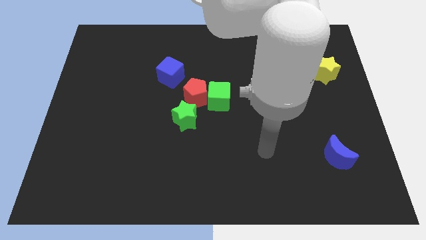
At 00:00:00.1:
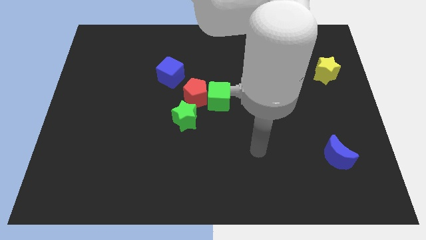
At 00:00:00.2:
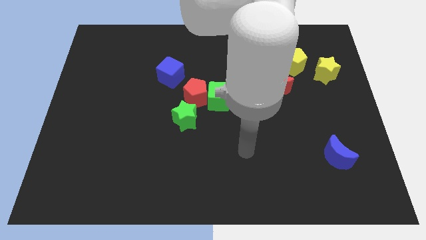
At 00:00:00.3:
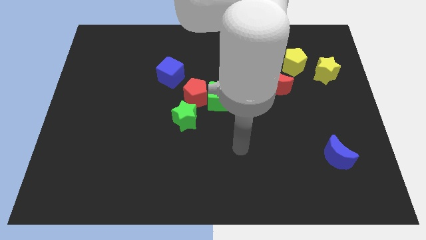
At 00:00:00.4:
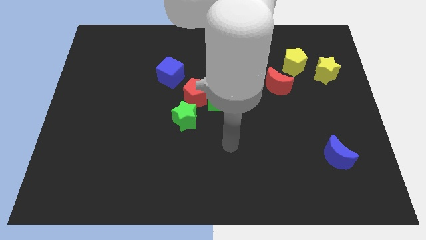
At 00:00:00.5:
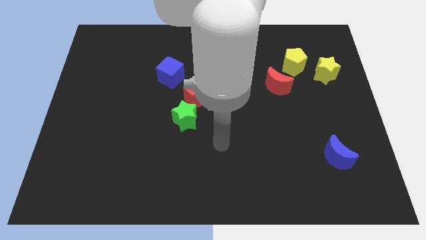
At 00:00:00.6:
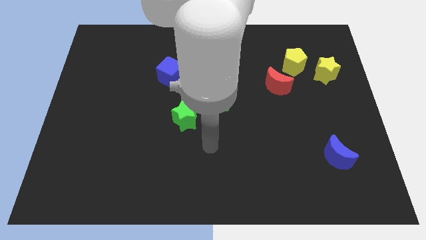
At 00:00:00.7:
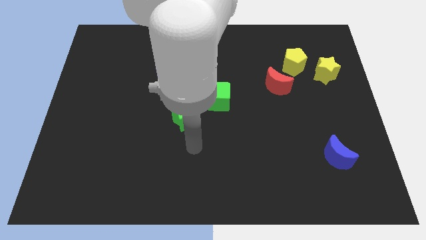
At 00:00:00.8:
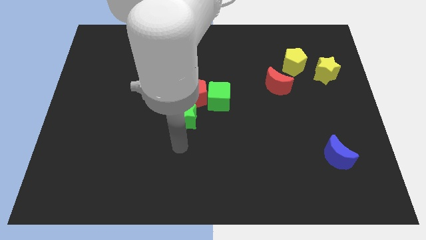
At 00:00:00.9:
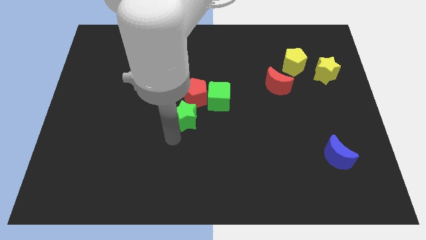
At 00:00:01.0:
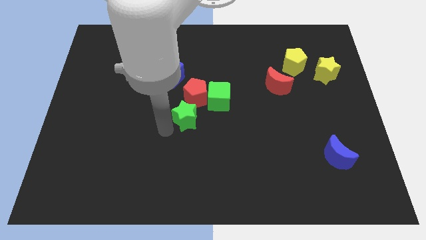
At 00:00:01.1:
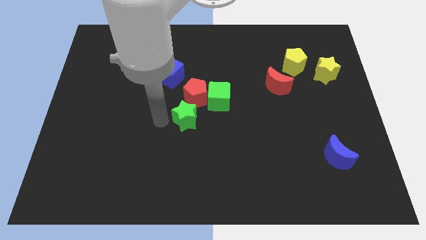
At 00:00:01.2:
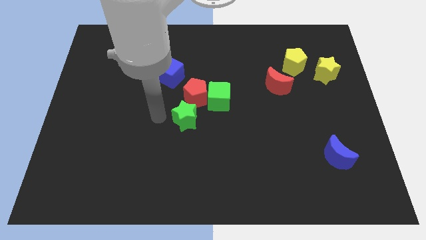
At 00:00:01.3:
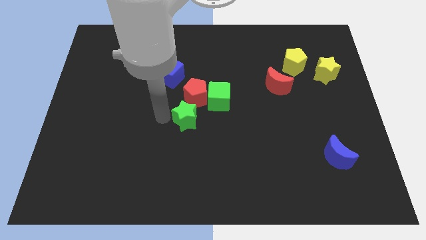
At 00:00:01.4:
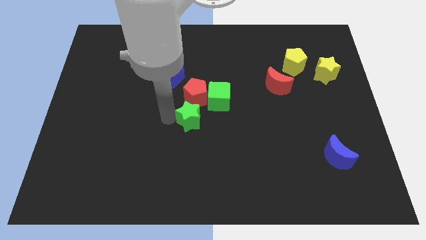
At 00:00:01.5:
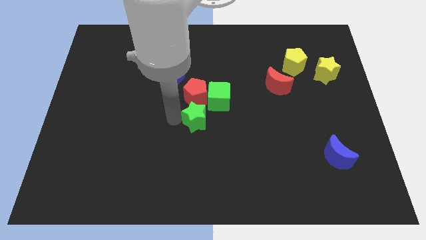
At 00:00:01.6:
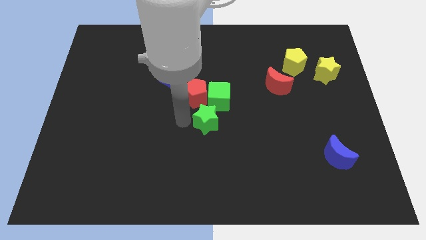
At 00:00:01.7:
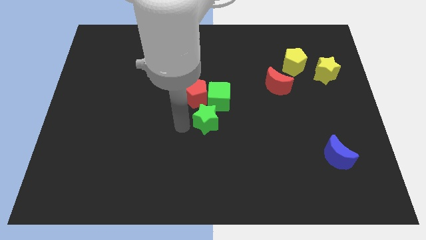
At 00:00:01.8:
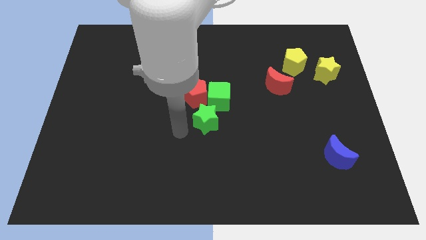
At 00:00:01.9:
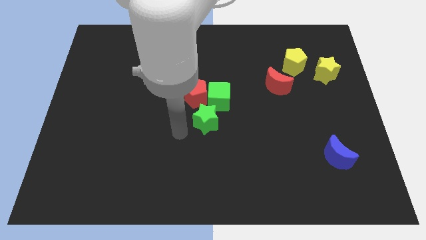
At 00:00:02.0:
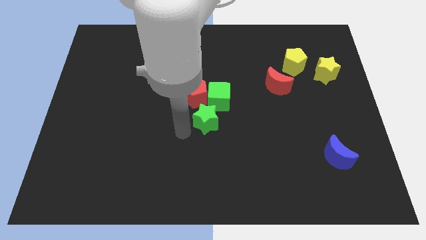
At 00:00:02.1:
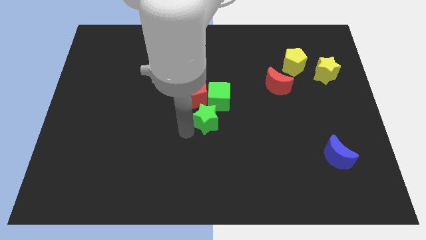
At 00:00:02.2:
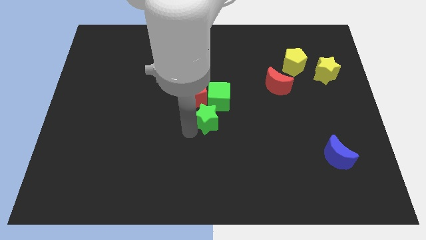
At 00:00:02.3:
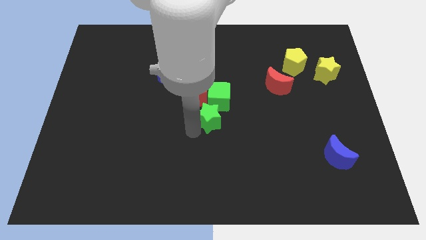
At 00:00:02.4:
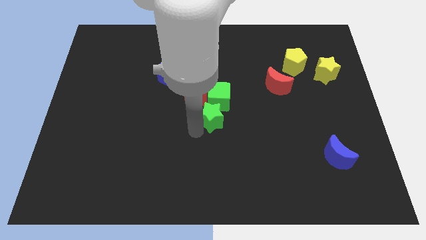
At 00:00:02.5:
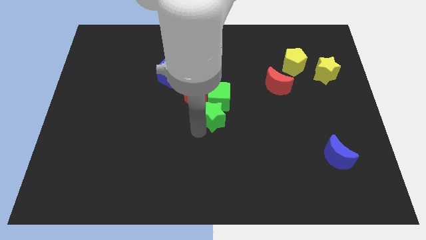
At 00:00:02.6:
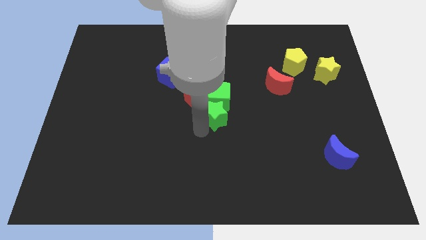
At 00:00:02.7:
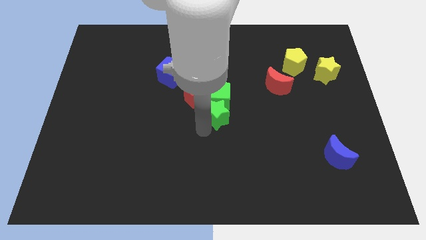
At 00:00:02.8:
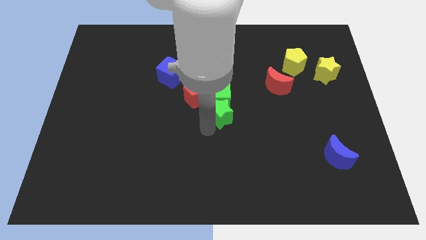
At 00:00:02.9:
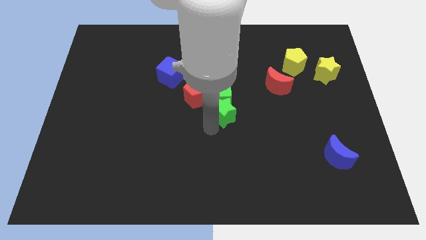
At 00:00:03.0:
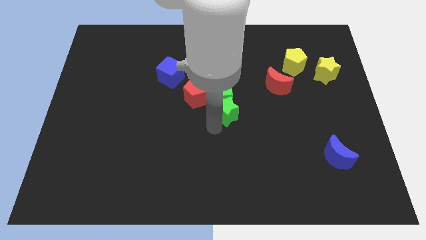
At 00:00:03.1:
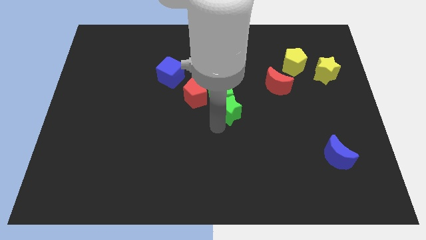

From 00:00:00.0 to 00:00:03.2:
push the green star a little up and then to the right

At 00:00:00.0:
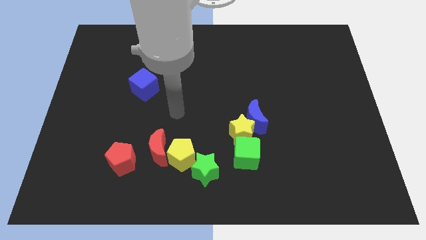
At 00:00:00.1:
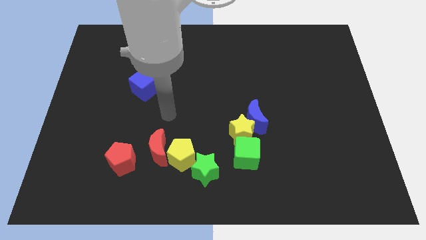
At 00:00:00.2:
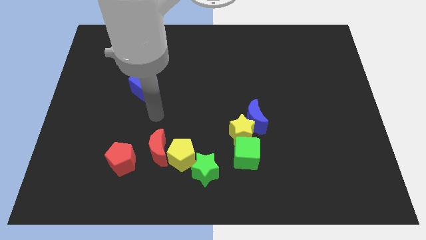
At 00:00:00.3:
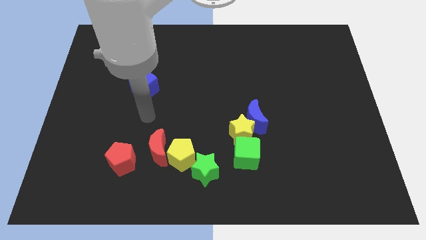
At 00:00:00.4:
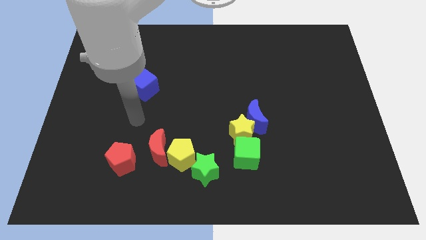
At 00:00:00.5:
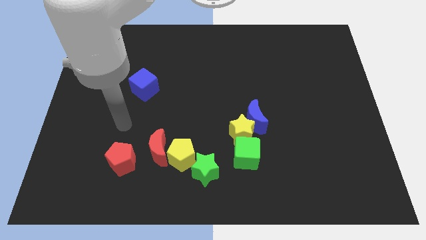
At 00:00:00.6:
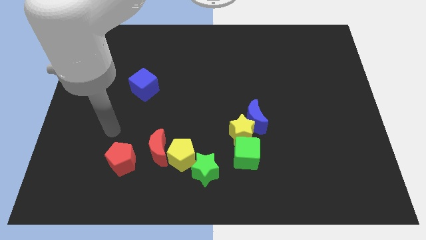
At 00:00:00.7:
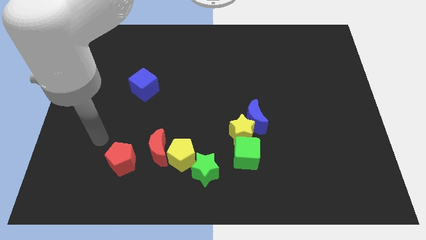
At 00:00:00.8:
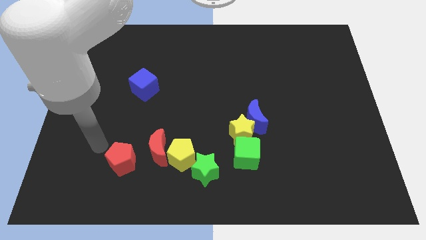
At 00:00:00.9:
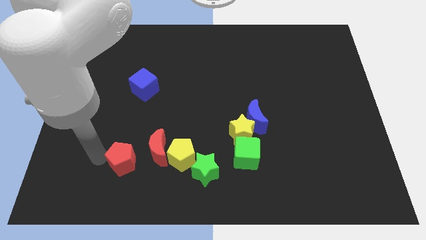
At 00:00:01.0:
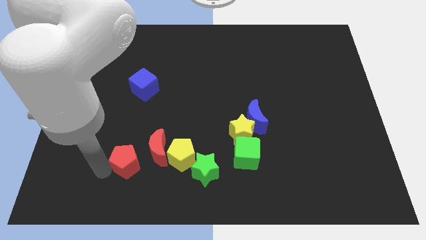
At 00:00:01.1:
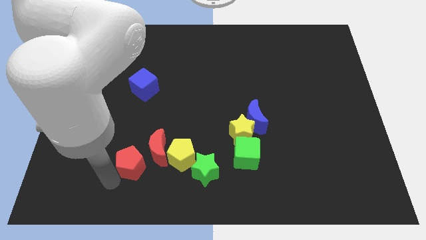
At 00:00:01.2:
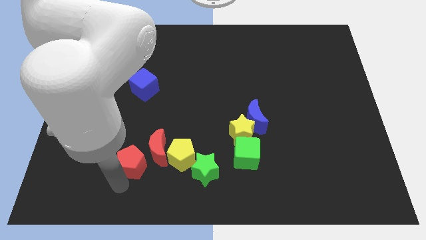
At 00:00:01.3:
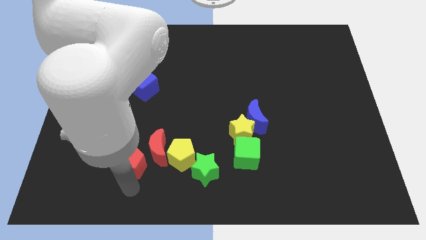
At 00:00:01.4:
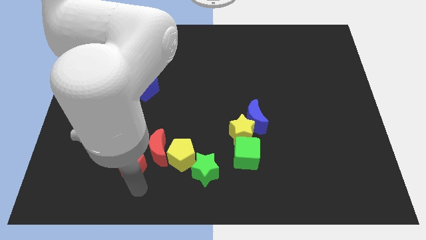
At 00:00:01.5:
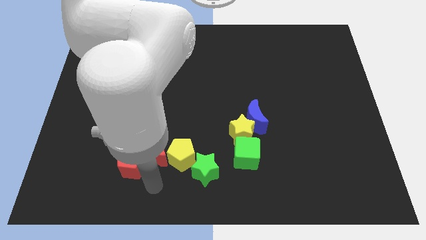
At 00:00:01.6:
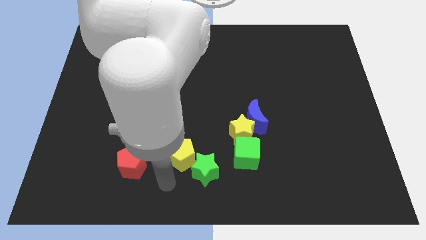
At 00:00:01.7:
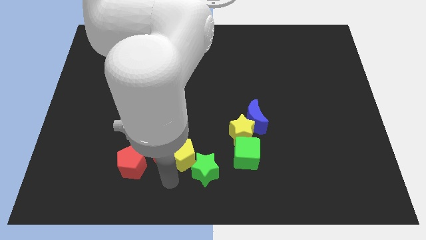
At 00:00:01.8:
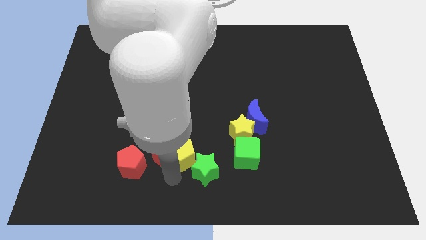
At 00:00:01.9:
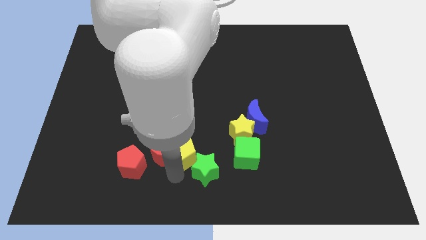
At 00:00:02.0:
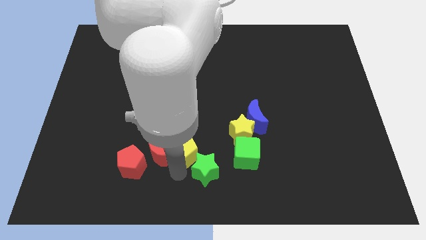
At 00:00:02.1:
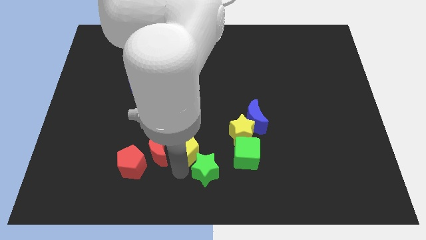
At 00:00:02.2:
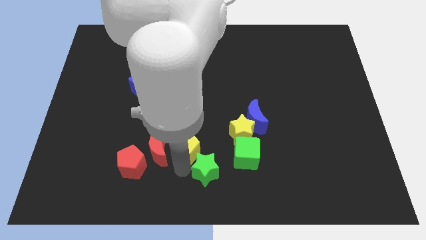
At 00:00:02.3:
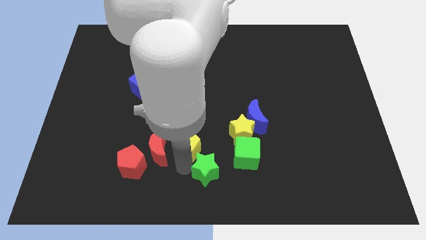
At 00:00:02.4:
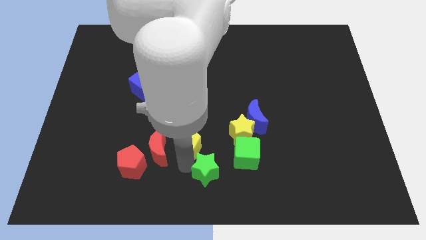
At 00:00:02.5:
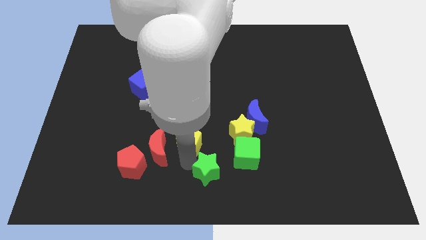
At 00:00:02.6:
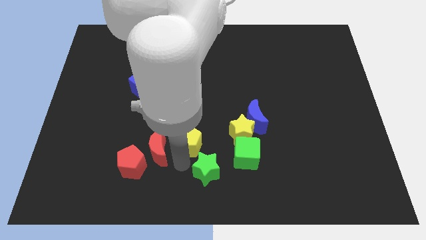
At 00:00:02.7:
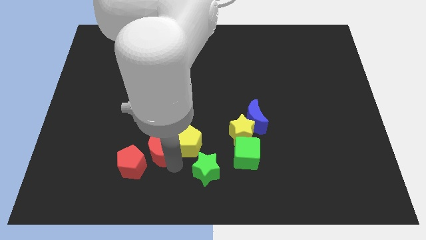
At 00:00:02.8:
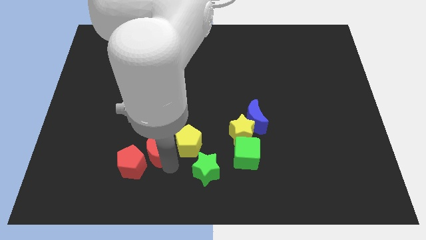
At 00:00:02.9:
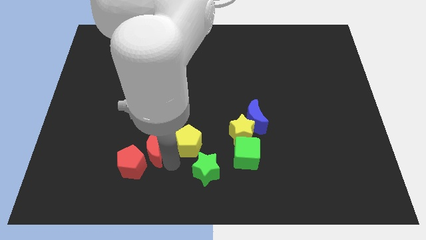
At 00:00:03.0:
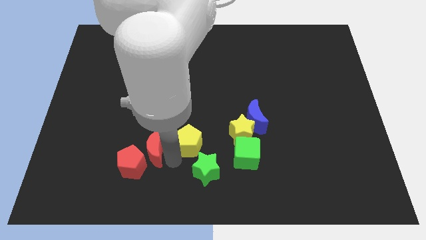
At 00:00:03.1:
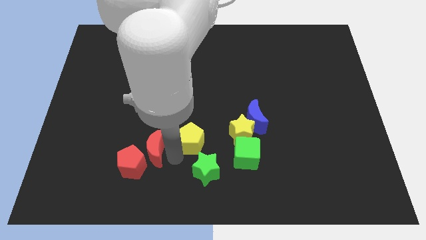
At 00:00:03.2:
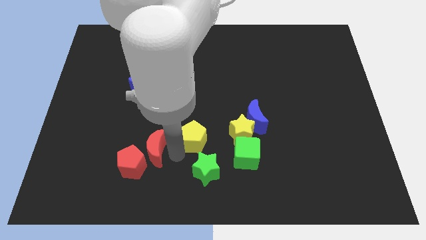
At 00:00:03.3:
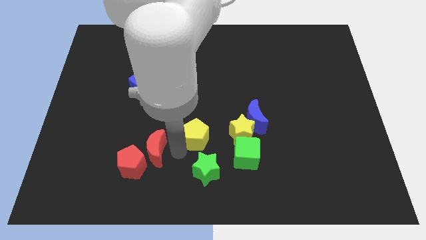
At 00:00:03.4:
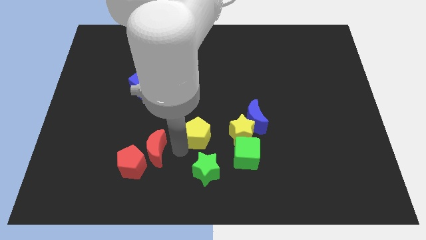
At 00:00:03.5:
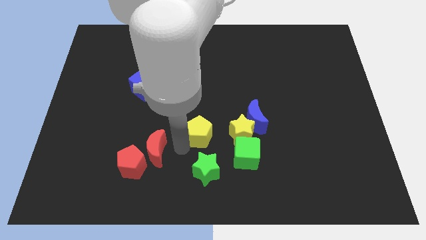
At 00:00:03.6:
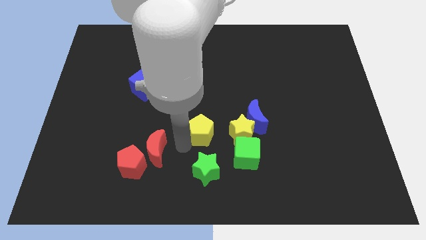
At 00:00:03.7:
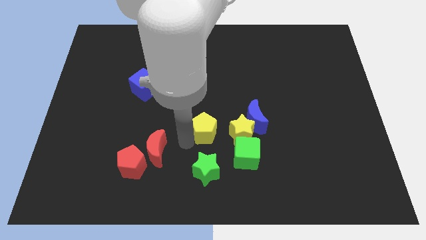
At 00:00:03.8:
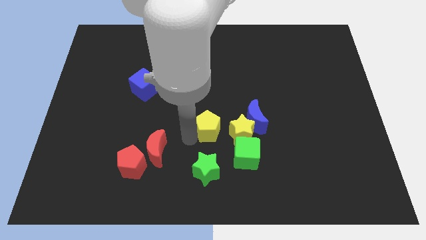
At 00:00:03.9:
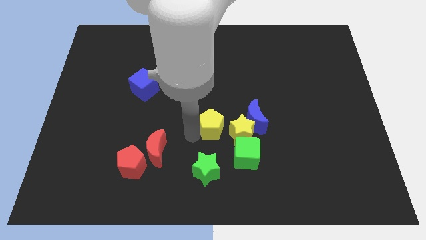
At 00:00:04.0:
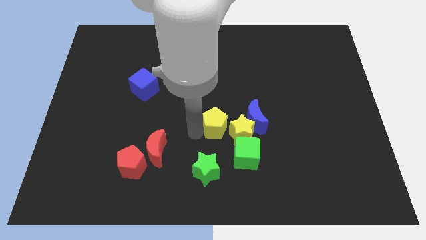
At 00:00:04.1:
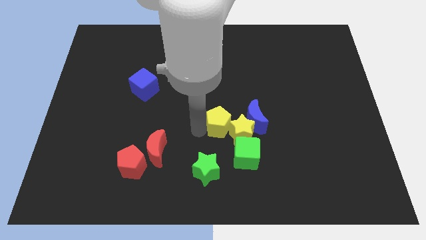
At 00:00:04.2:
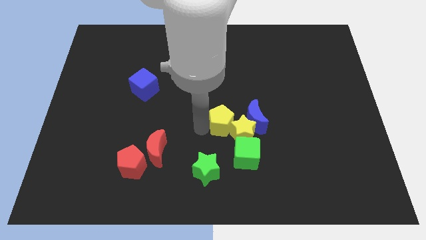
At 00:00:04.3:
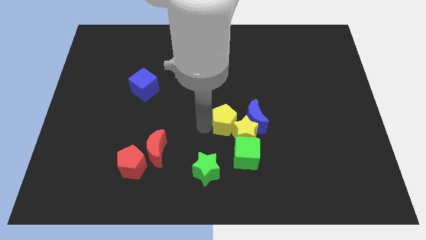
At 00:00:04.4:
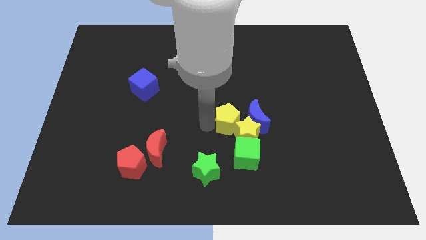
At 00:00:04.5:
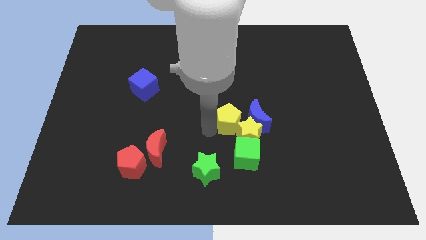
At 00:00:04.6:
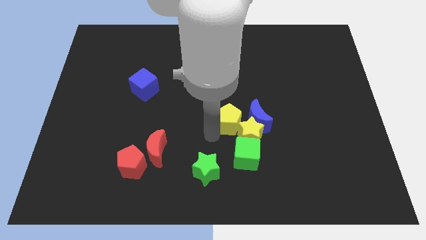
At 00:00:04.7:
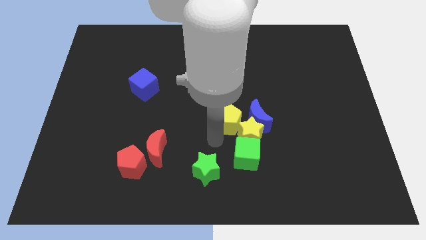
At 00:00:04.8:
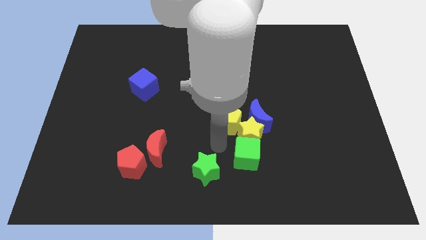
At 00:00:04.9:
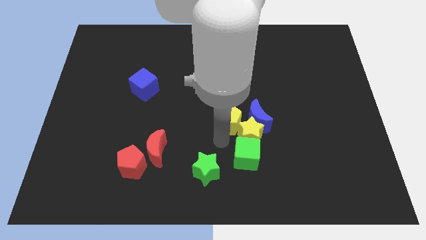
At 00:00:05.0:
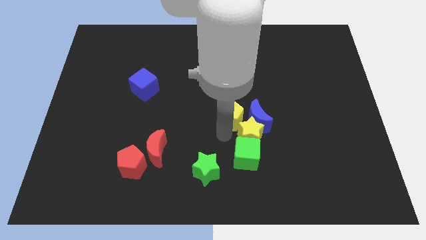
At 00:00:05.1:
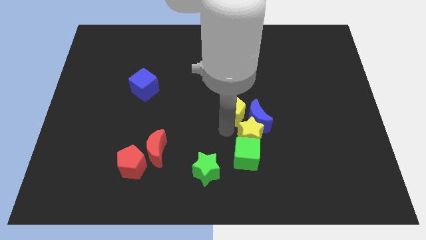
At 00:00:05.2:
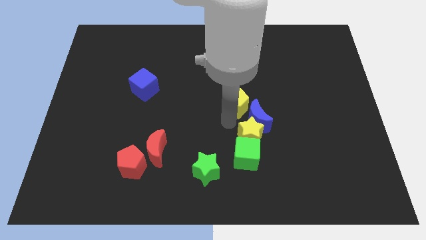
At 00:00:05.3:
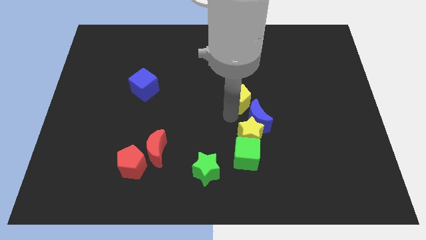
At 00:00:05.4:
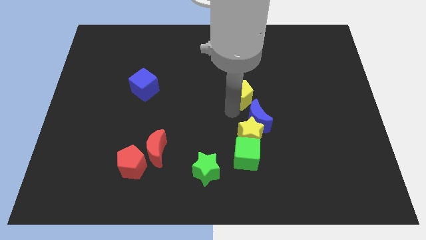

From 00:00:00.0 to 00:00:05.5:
move the yellow pentagon up and to the right
